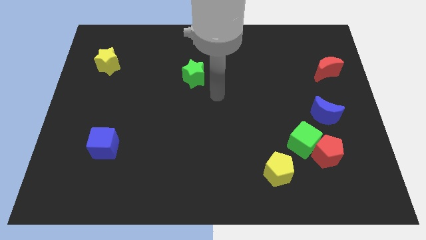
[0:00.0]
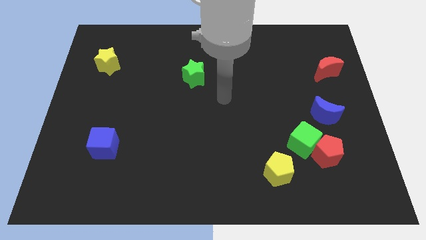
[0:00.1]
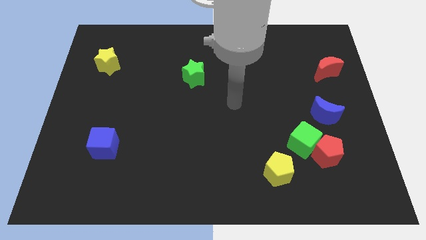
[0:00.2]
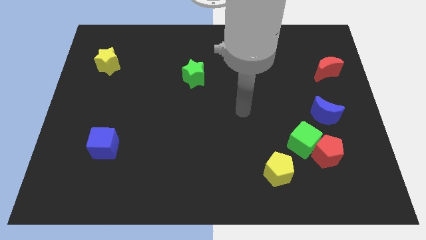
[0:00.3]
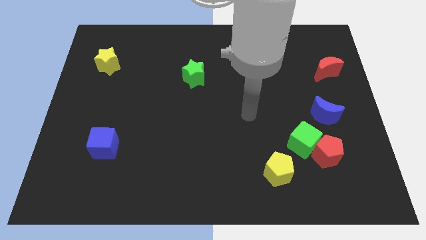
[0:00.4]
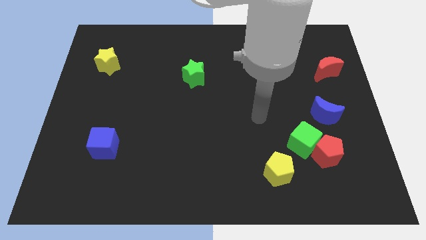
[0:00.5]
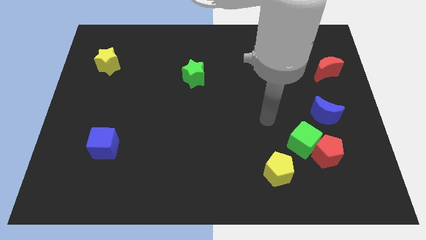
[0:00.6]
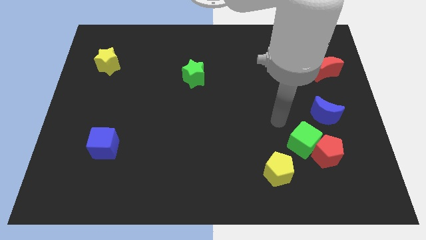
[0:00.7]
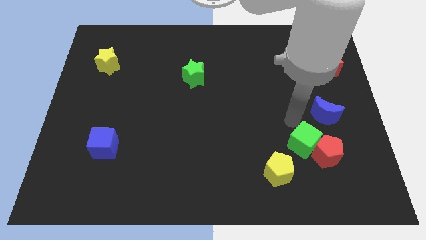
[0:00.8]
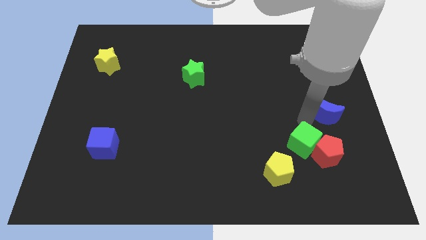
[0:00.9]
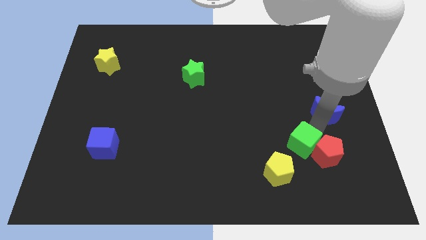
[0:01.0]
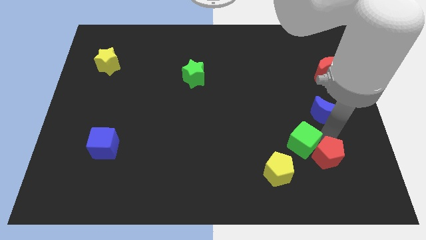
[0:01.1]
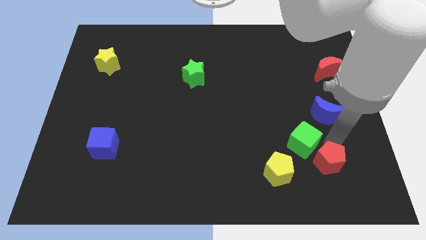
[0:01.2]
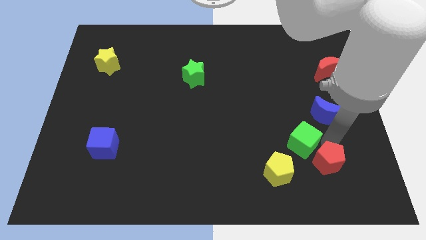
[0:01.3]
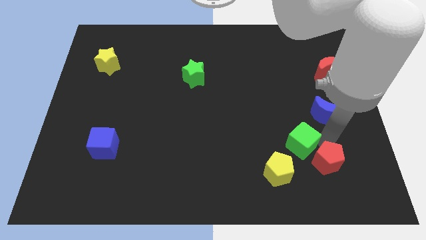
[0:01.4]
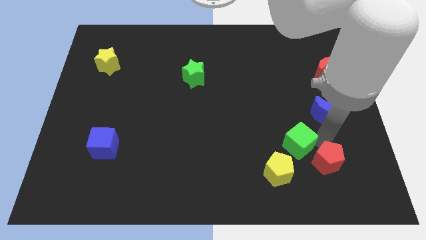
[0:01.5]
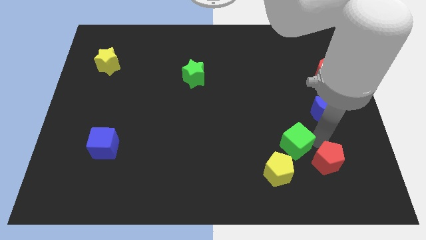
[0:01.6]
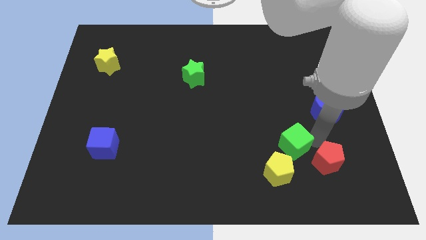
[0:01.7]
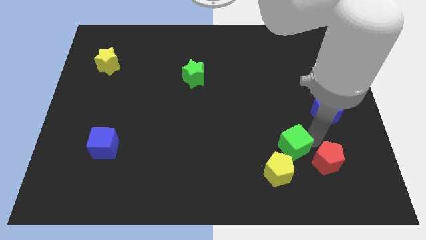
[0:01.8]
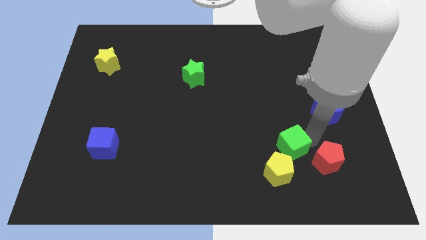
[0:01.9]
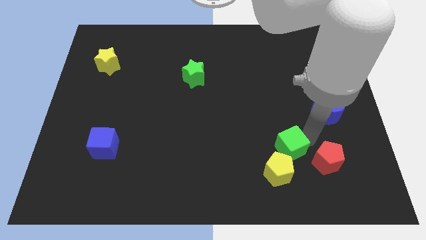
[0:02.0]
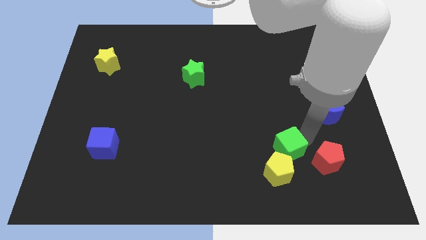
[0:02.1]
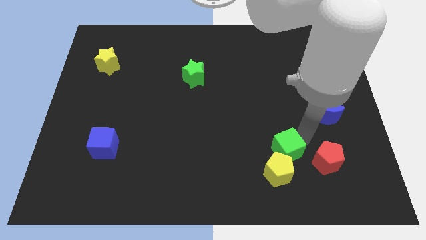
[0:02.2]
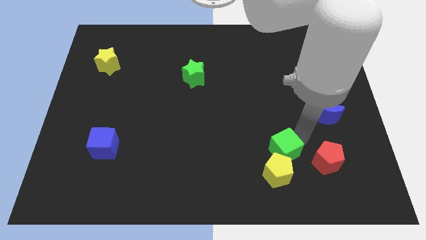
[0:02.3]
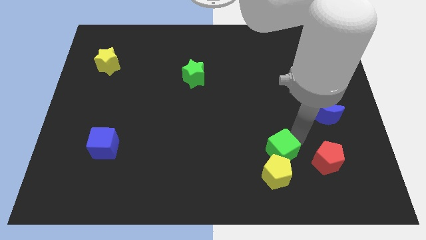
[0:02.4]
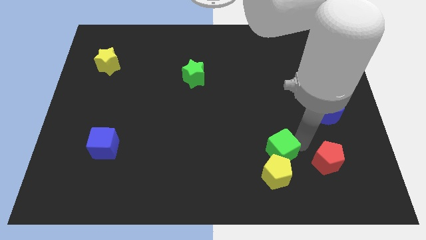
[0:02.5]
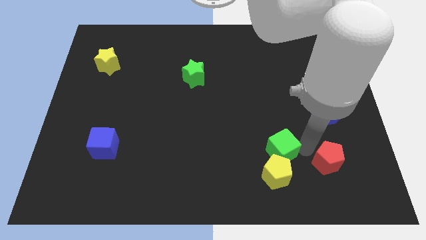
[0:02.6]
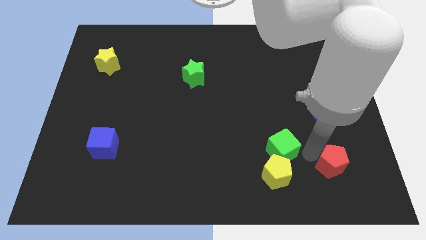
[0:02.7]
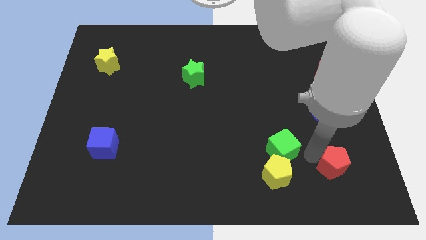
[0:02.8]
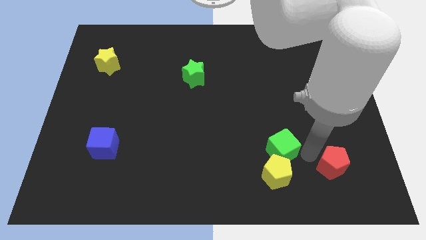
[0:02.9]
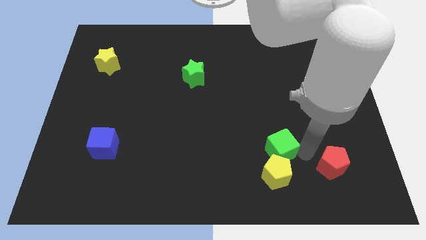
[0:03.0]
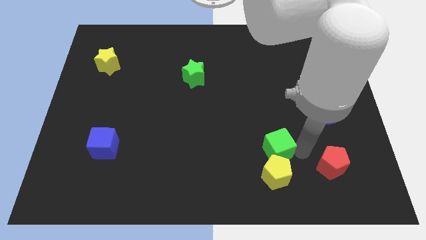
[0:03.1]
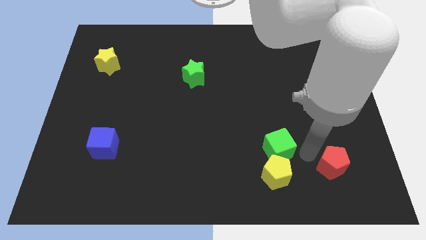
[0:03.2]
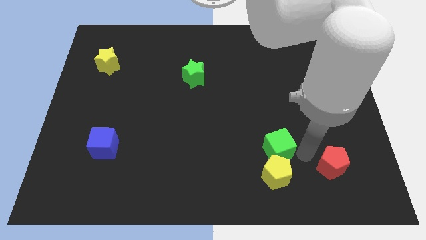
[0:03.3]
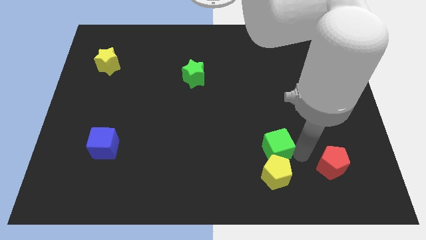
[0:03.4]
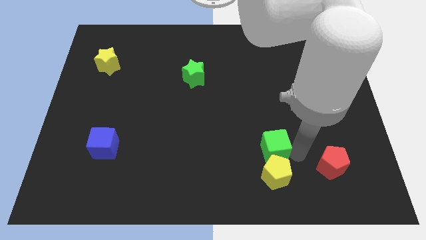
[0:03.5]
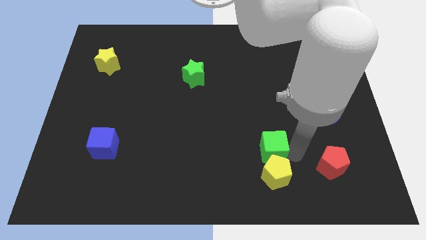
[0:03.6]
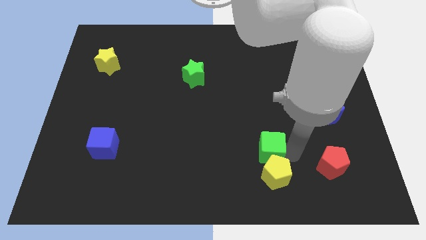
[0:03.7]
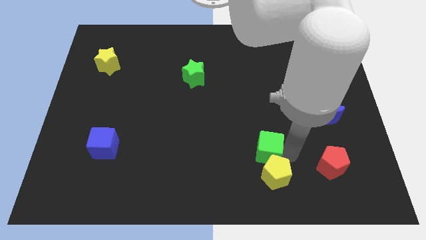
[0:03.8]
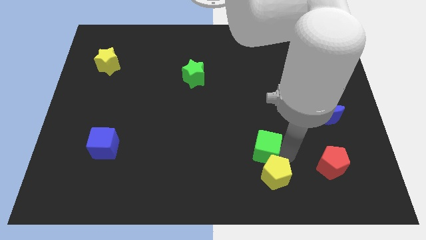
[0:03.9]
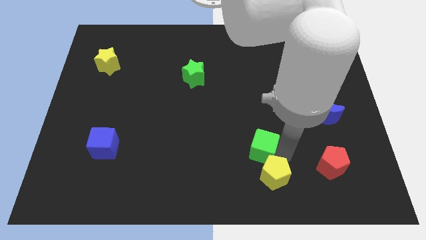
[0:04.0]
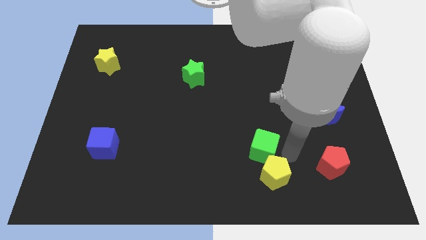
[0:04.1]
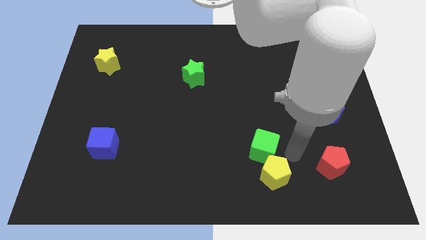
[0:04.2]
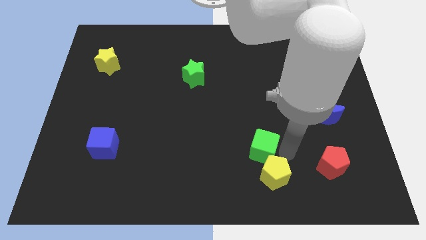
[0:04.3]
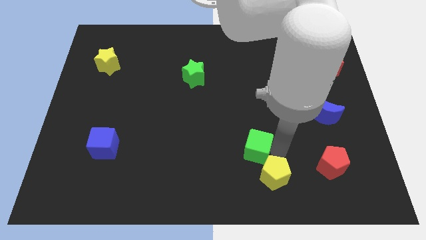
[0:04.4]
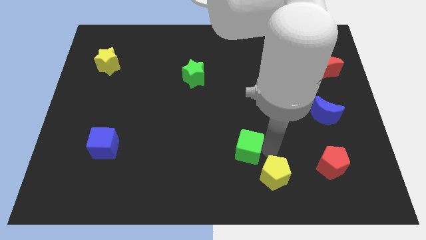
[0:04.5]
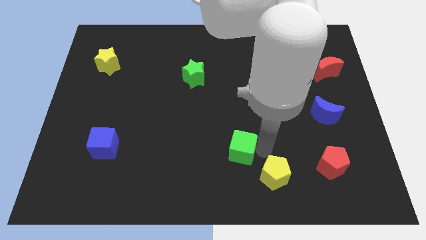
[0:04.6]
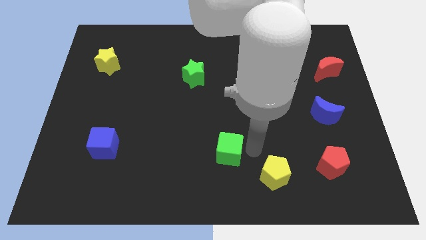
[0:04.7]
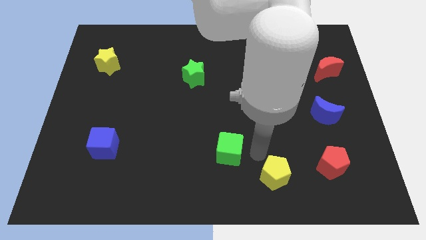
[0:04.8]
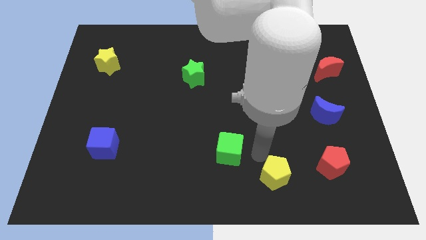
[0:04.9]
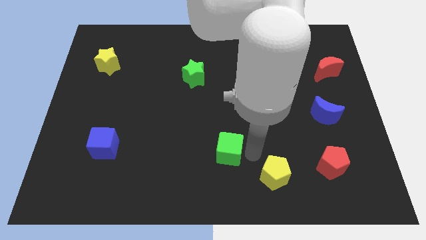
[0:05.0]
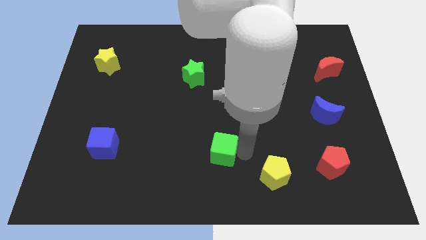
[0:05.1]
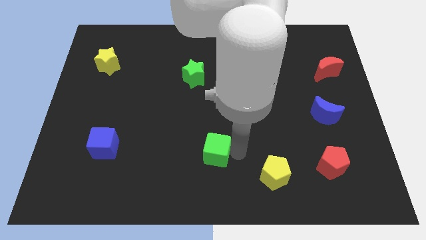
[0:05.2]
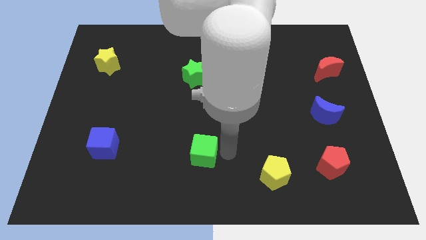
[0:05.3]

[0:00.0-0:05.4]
move the green cube left

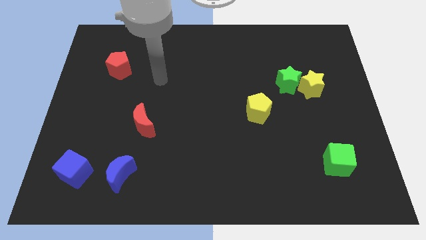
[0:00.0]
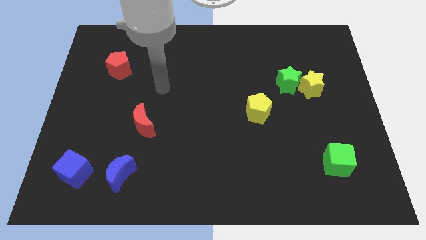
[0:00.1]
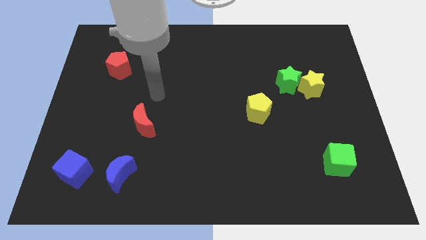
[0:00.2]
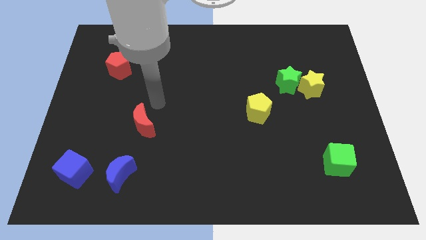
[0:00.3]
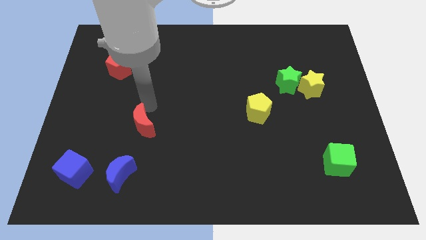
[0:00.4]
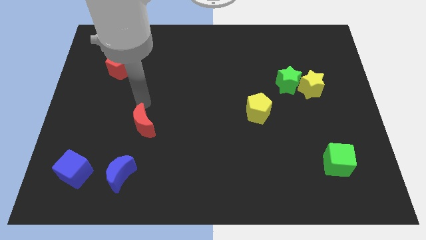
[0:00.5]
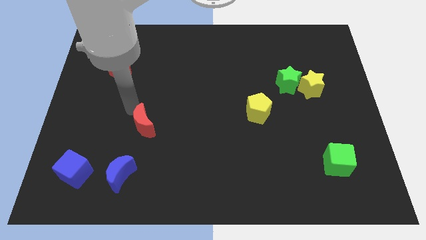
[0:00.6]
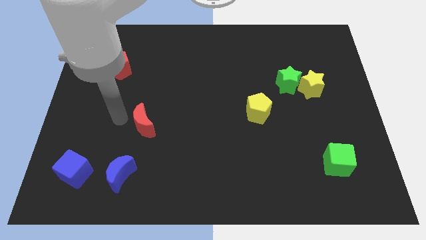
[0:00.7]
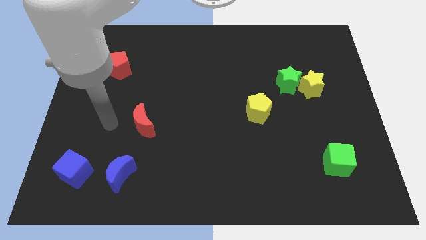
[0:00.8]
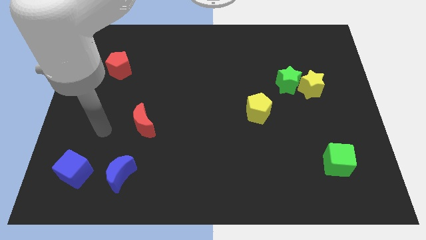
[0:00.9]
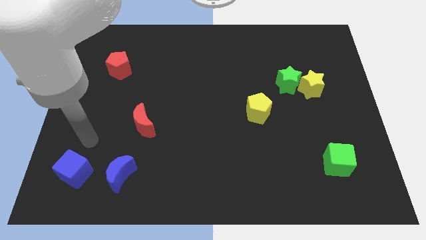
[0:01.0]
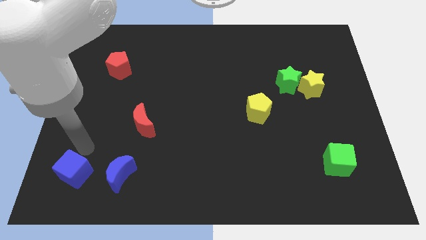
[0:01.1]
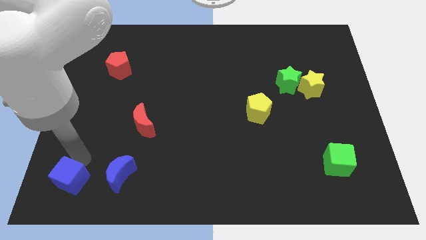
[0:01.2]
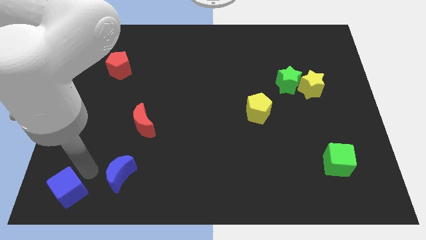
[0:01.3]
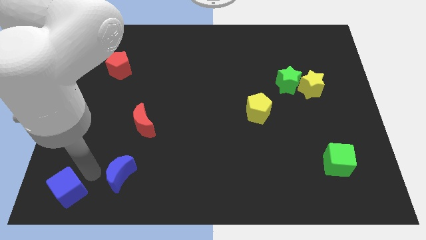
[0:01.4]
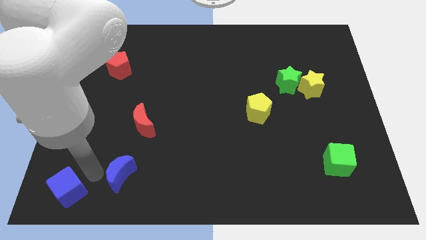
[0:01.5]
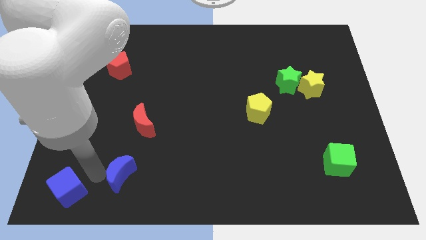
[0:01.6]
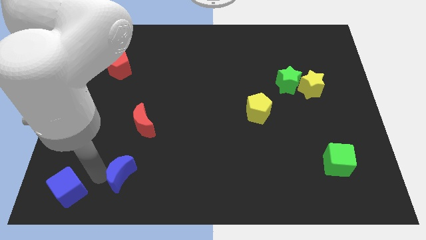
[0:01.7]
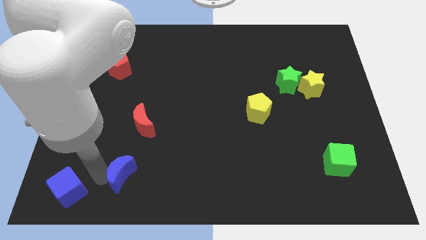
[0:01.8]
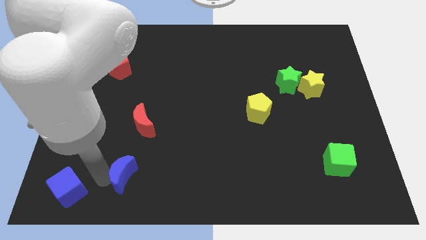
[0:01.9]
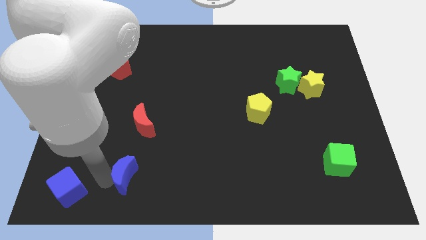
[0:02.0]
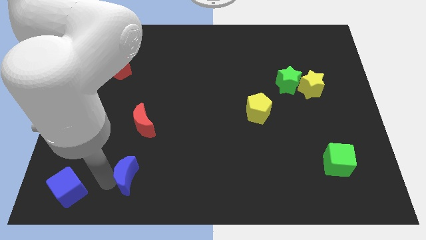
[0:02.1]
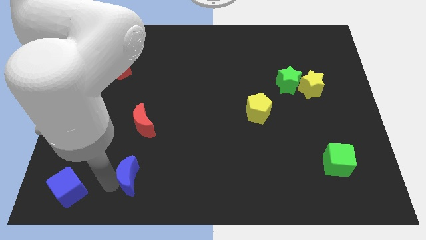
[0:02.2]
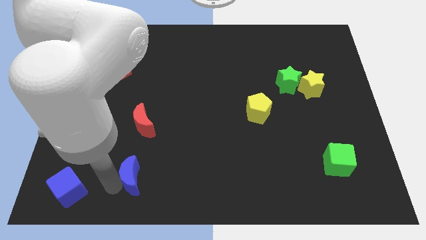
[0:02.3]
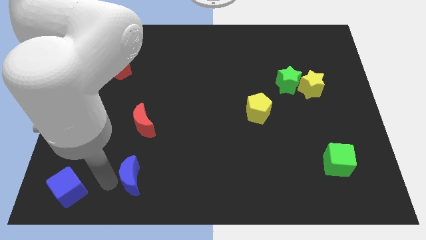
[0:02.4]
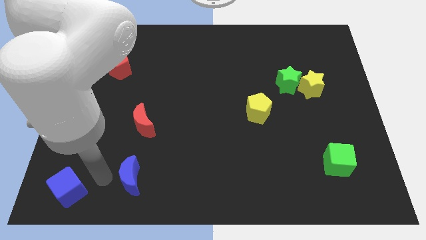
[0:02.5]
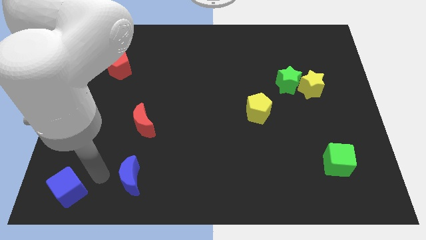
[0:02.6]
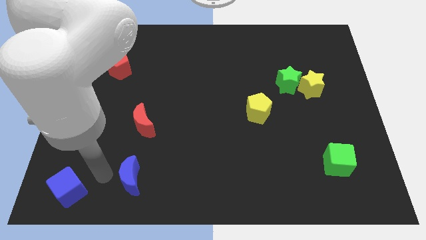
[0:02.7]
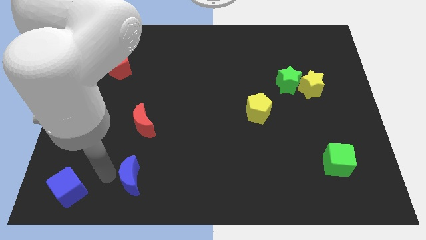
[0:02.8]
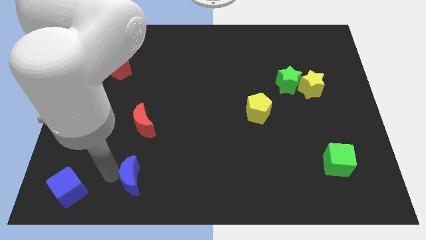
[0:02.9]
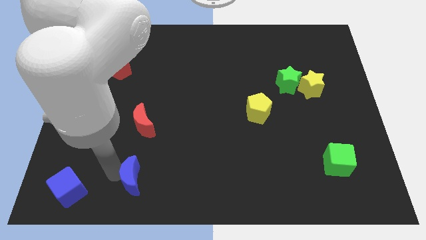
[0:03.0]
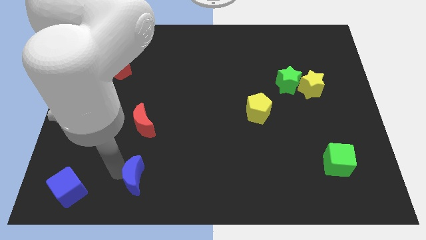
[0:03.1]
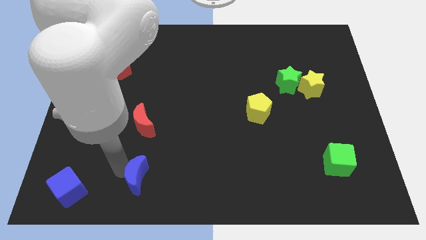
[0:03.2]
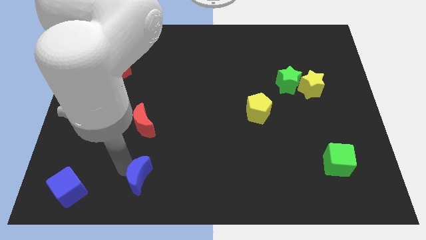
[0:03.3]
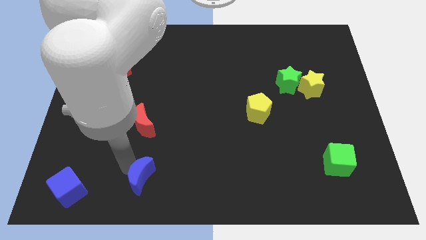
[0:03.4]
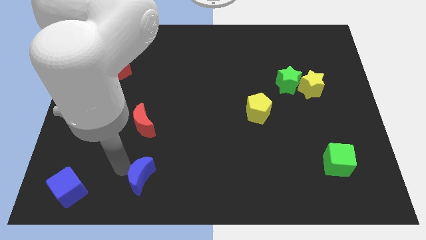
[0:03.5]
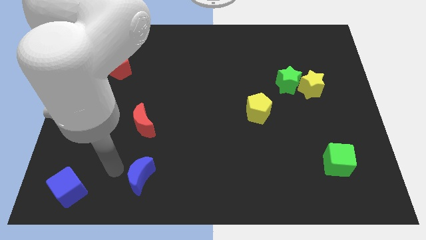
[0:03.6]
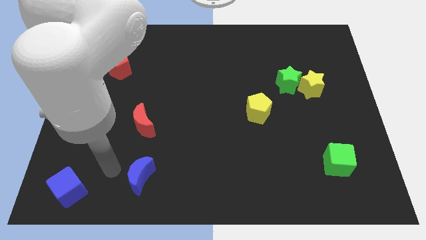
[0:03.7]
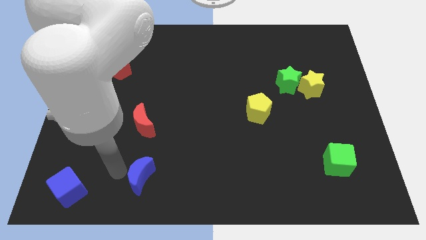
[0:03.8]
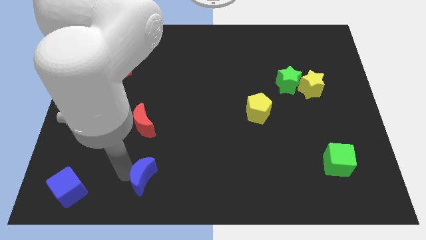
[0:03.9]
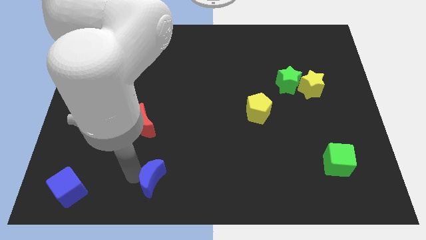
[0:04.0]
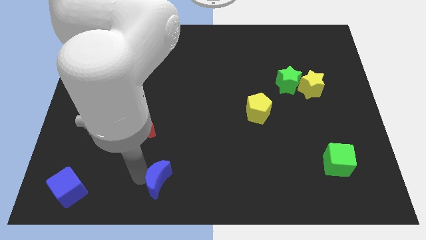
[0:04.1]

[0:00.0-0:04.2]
slightly push the blue moon right
